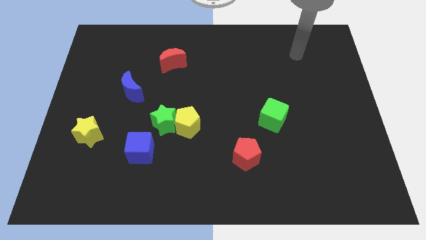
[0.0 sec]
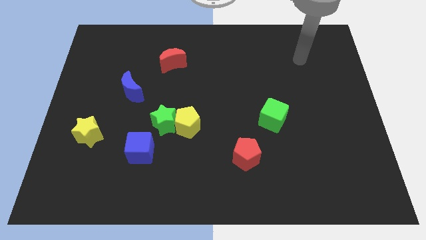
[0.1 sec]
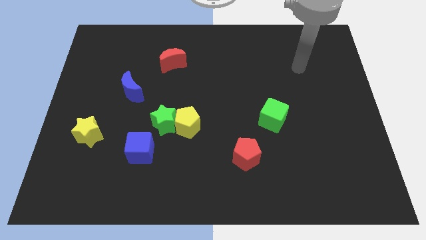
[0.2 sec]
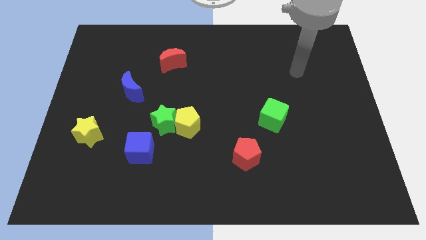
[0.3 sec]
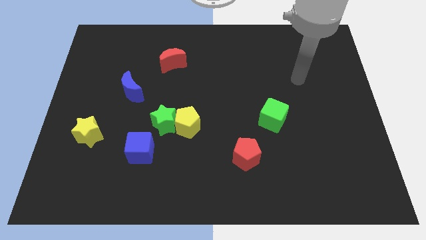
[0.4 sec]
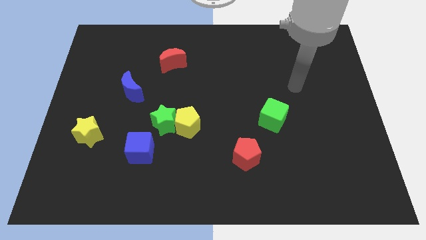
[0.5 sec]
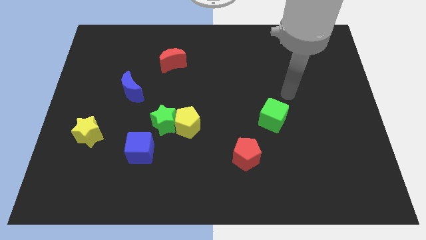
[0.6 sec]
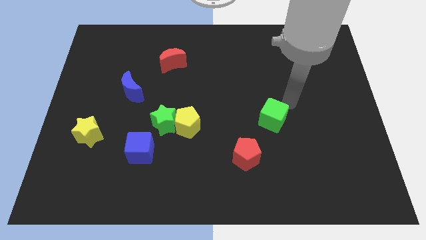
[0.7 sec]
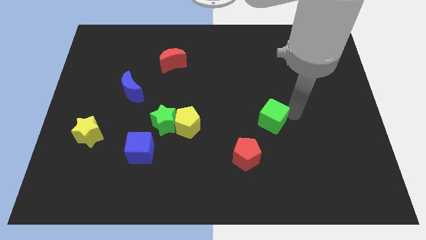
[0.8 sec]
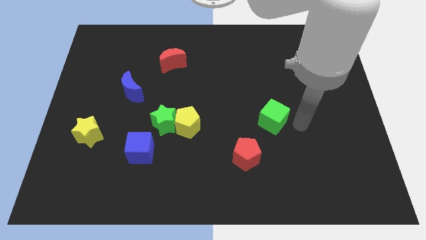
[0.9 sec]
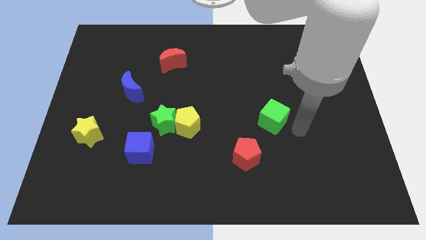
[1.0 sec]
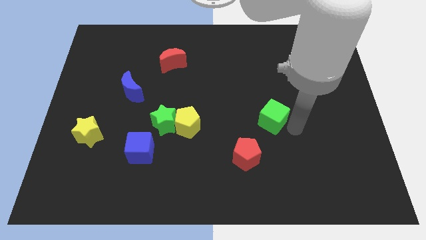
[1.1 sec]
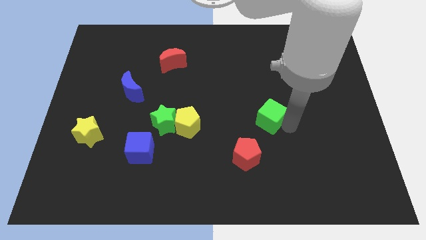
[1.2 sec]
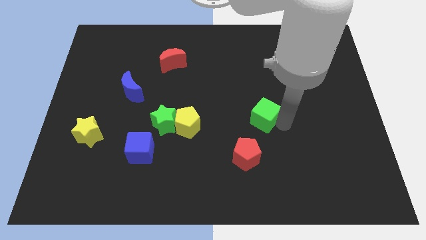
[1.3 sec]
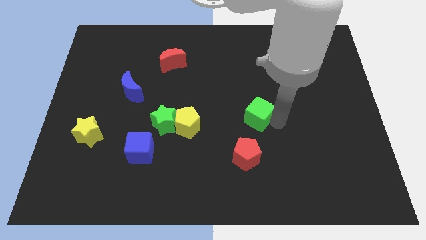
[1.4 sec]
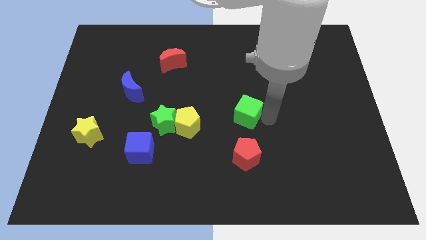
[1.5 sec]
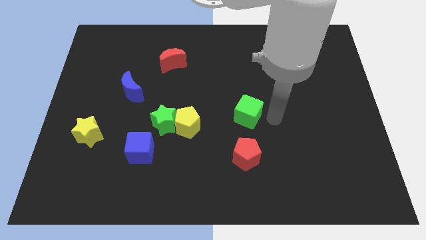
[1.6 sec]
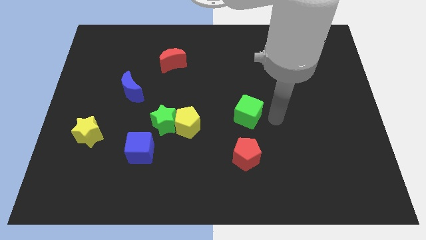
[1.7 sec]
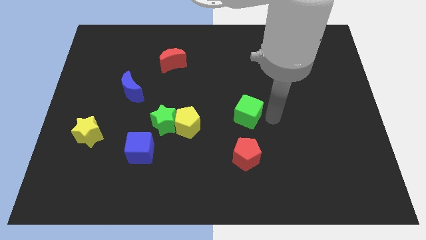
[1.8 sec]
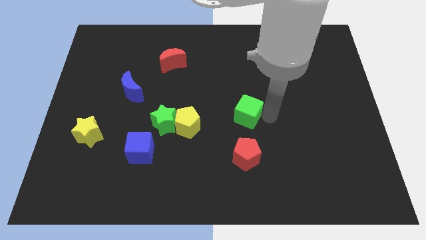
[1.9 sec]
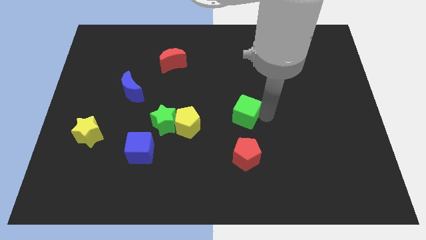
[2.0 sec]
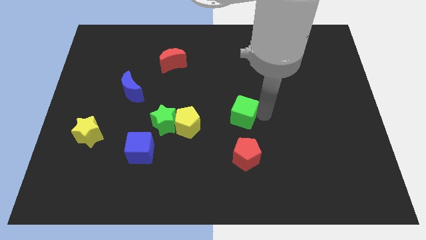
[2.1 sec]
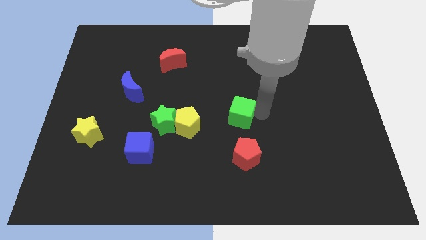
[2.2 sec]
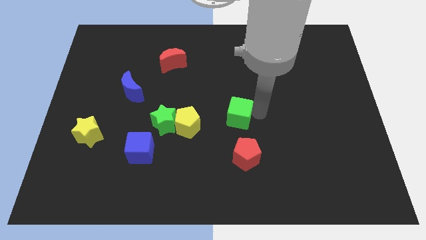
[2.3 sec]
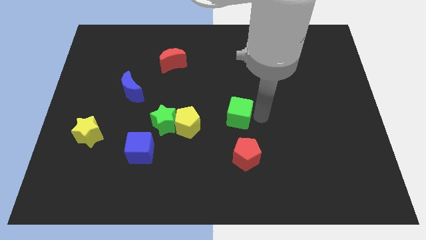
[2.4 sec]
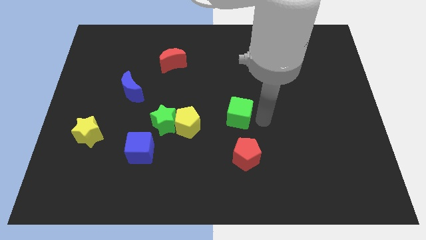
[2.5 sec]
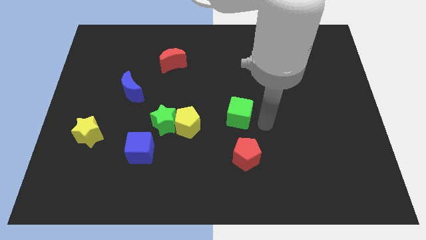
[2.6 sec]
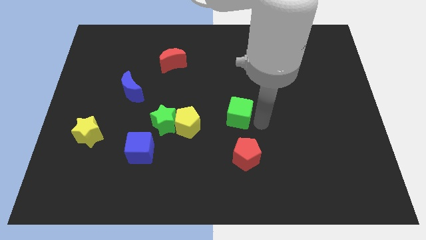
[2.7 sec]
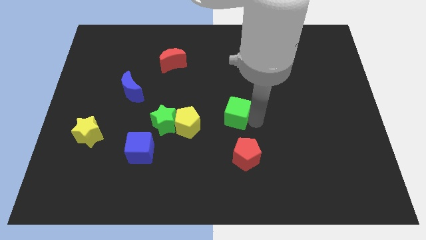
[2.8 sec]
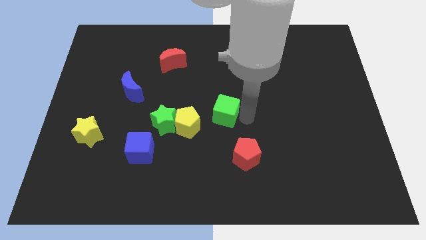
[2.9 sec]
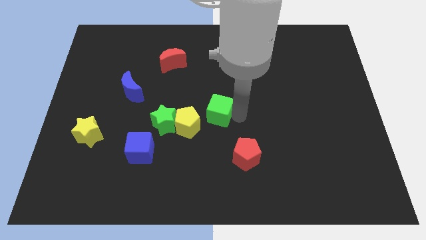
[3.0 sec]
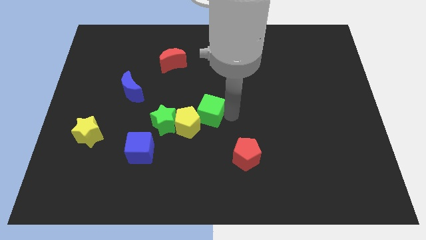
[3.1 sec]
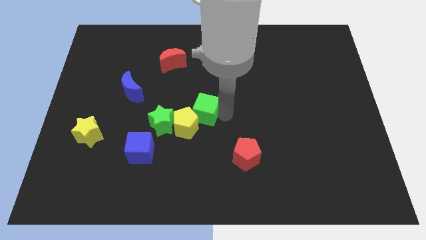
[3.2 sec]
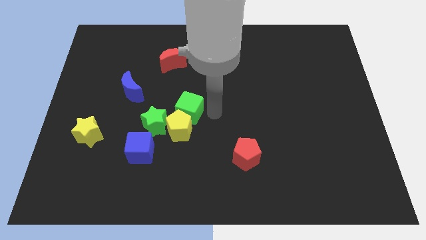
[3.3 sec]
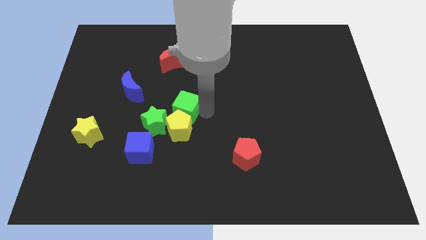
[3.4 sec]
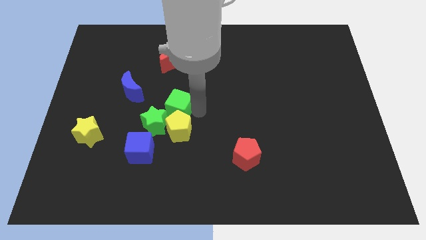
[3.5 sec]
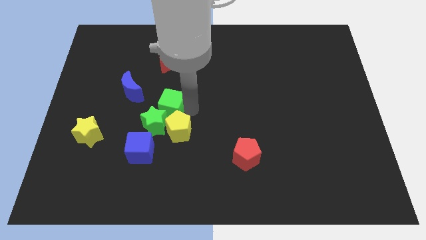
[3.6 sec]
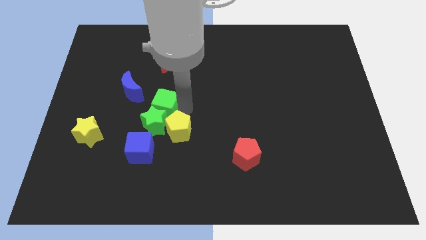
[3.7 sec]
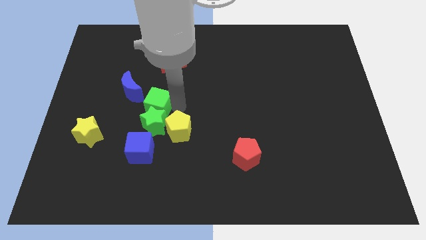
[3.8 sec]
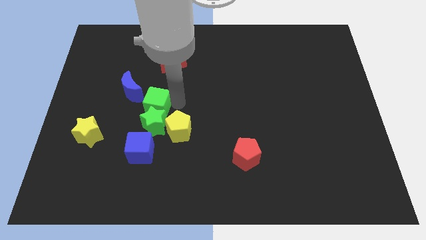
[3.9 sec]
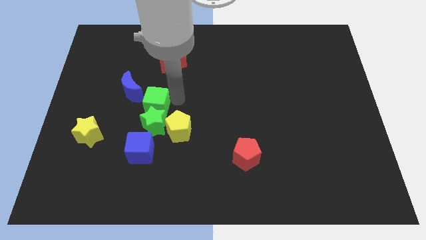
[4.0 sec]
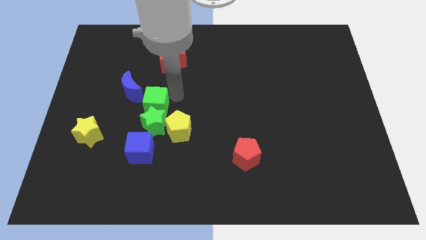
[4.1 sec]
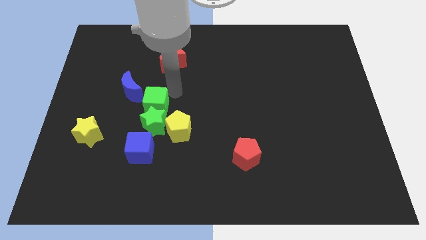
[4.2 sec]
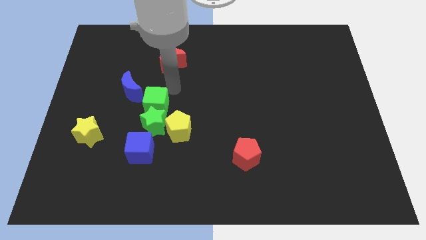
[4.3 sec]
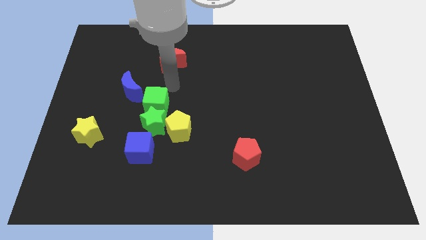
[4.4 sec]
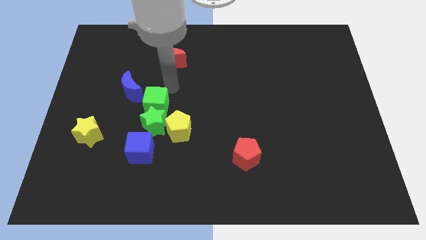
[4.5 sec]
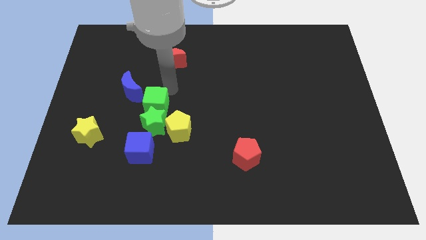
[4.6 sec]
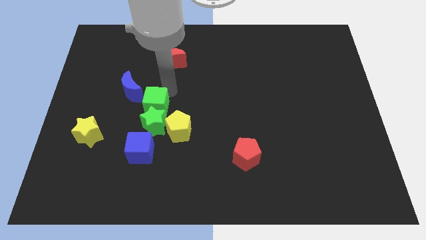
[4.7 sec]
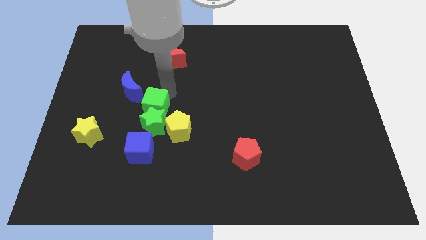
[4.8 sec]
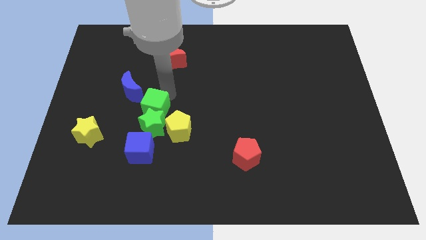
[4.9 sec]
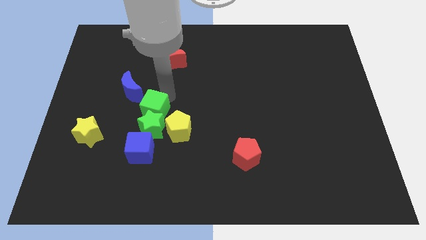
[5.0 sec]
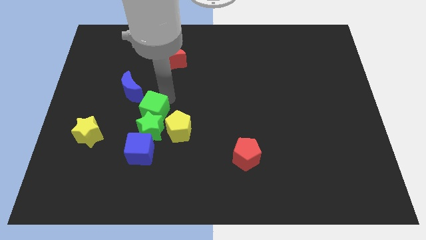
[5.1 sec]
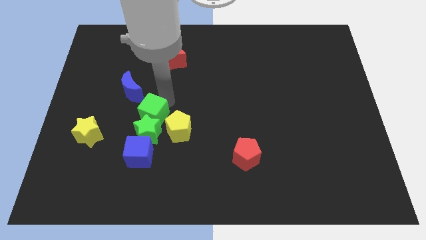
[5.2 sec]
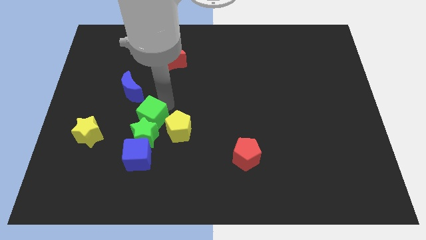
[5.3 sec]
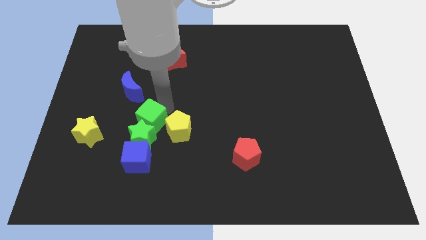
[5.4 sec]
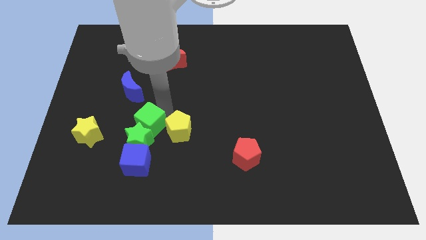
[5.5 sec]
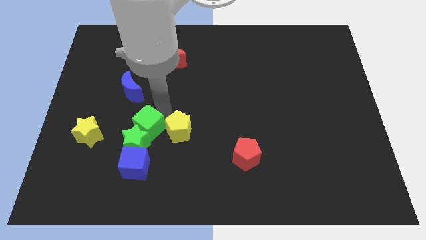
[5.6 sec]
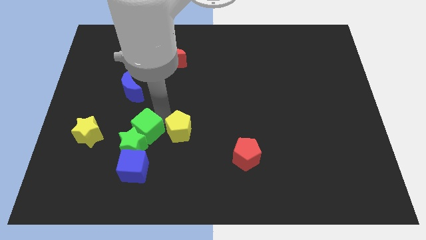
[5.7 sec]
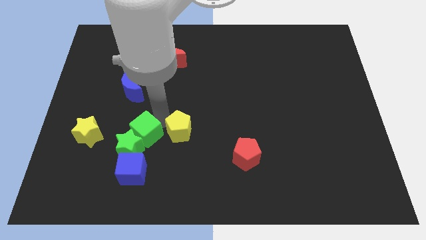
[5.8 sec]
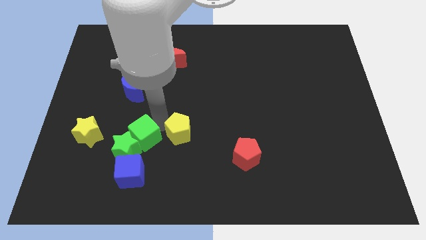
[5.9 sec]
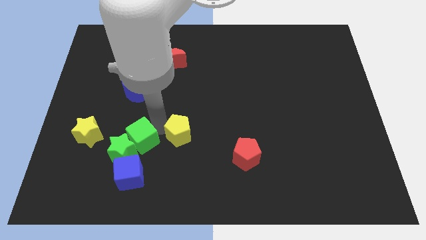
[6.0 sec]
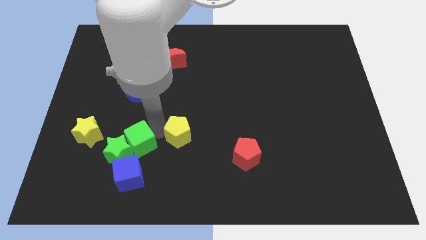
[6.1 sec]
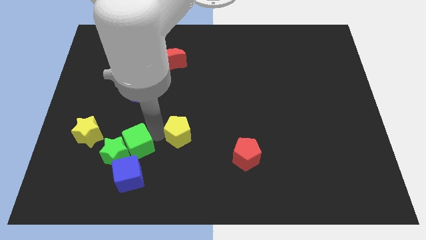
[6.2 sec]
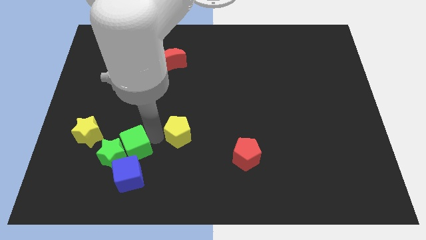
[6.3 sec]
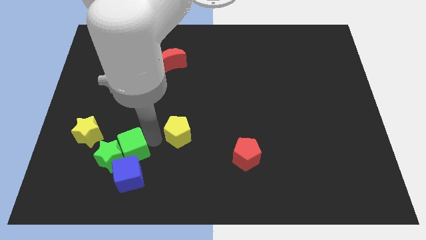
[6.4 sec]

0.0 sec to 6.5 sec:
put the green cube to the top left of the blue cube
